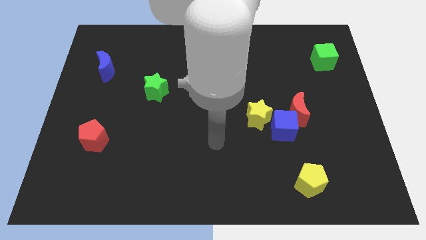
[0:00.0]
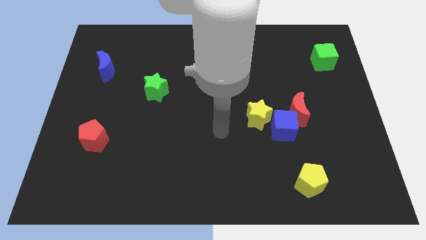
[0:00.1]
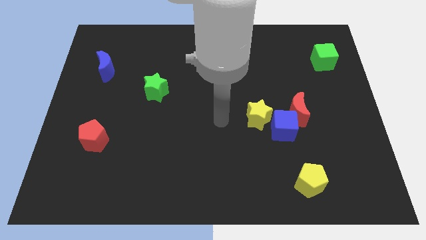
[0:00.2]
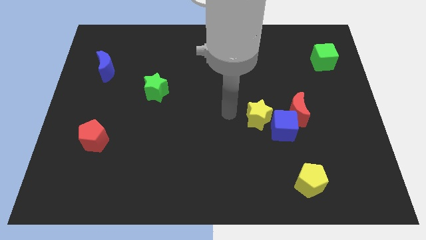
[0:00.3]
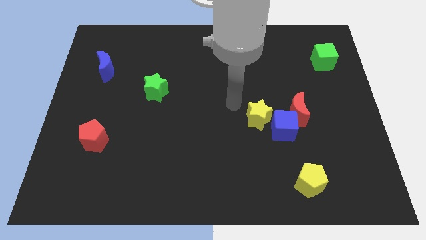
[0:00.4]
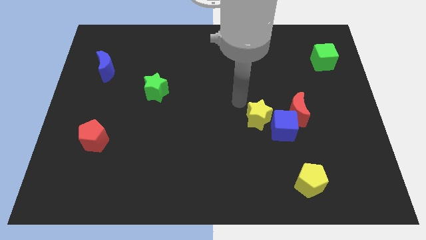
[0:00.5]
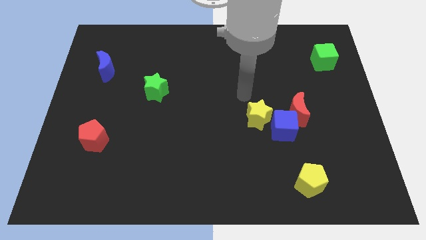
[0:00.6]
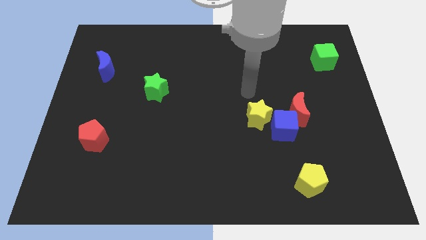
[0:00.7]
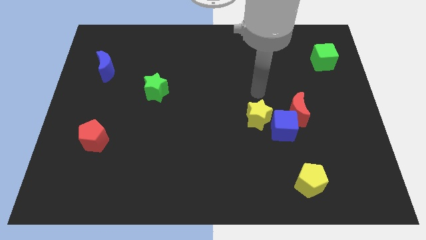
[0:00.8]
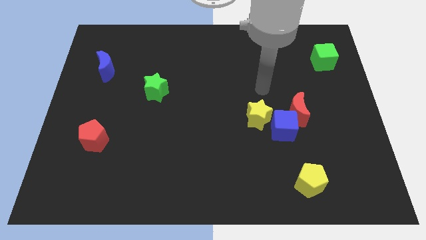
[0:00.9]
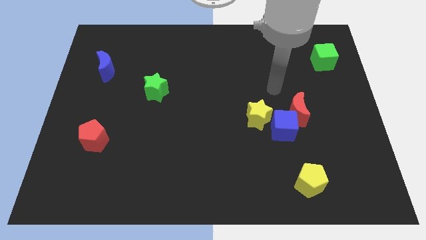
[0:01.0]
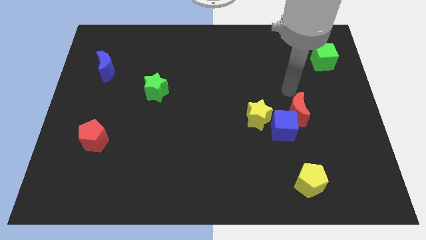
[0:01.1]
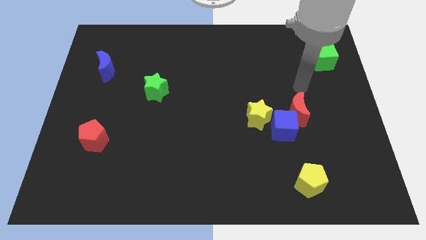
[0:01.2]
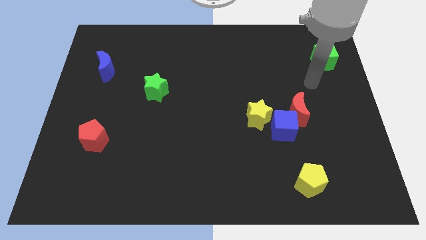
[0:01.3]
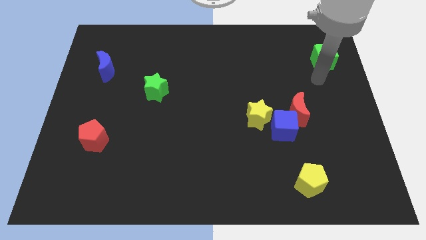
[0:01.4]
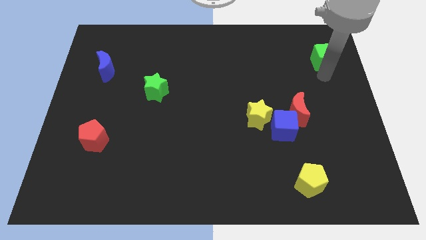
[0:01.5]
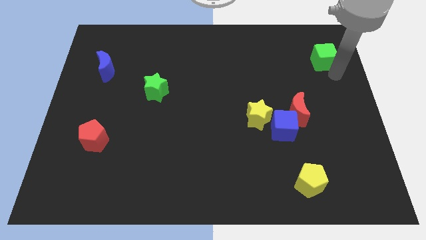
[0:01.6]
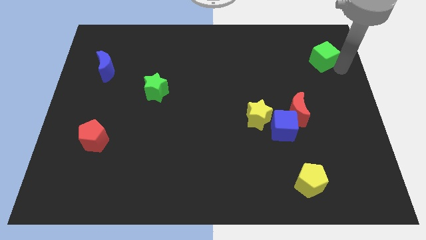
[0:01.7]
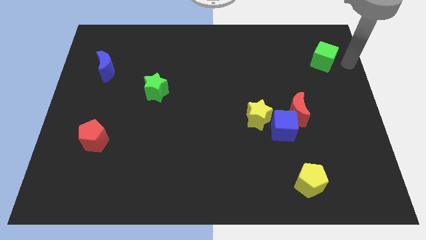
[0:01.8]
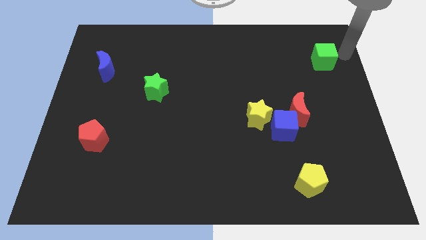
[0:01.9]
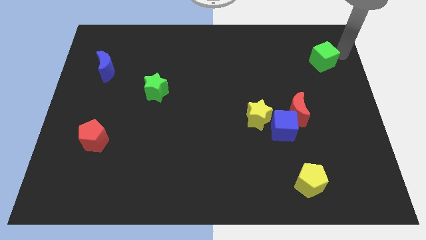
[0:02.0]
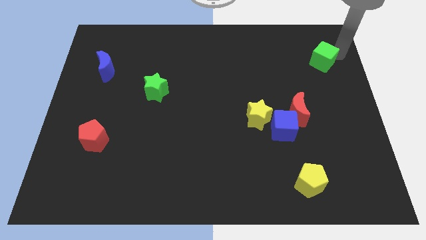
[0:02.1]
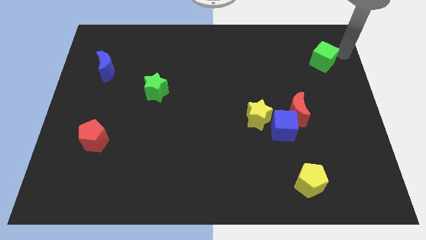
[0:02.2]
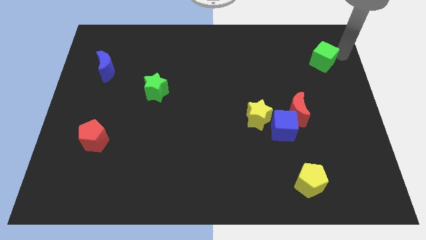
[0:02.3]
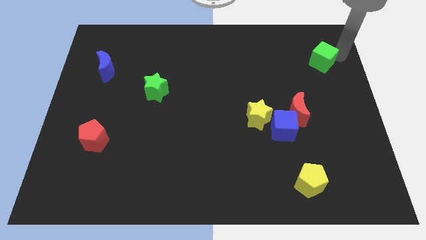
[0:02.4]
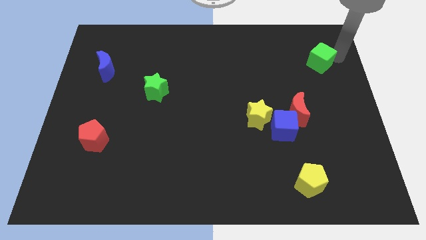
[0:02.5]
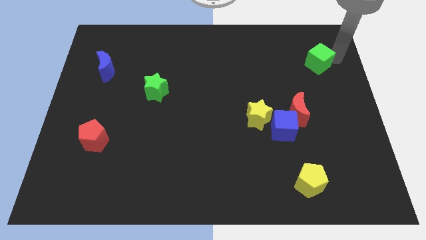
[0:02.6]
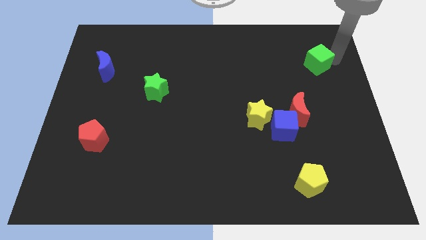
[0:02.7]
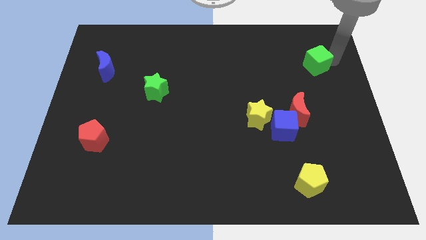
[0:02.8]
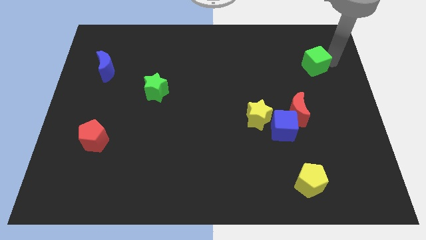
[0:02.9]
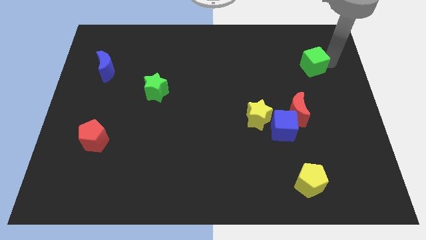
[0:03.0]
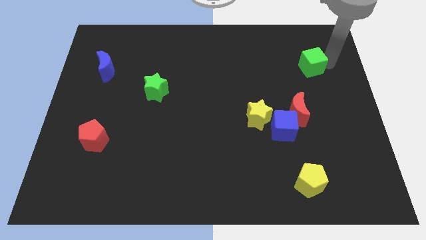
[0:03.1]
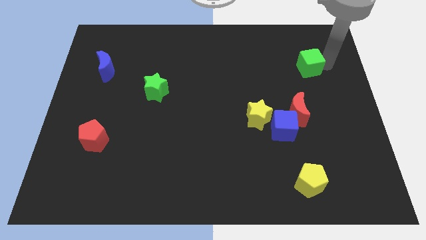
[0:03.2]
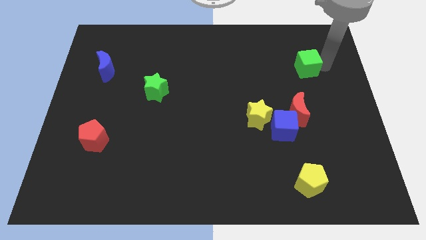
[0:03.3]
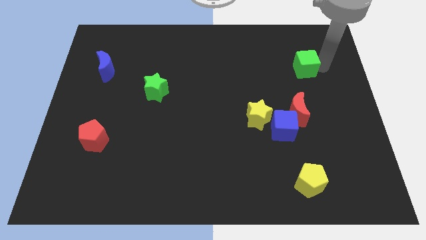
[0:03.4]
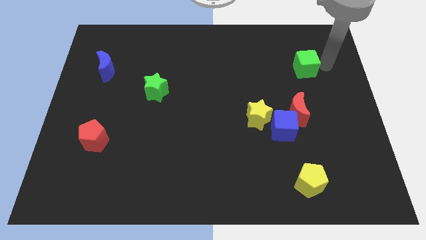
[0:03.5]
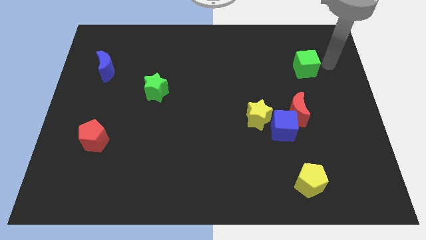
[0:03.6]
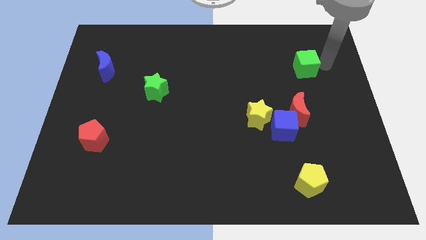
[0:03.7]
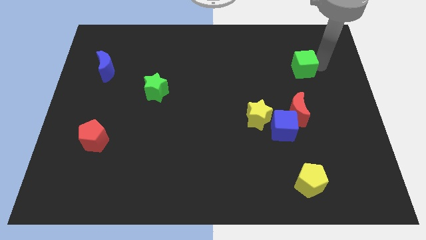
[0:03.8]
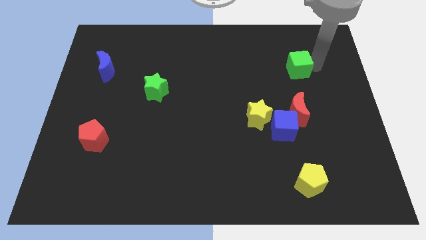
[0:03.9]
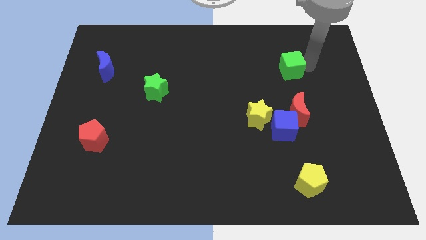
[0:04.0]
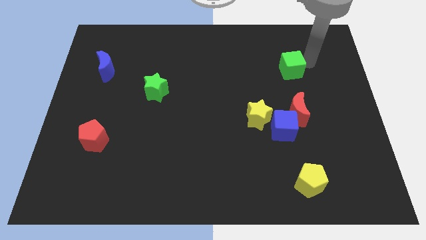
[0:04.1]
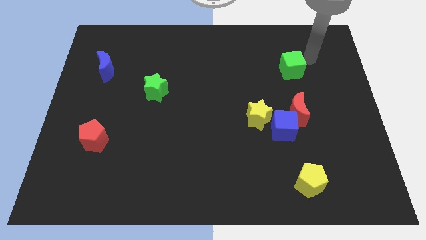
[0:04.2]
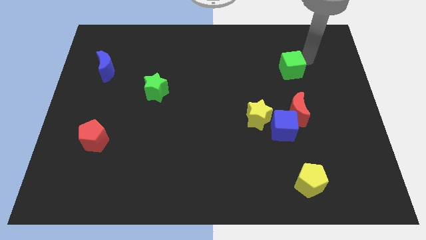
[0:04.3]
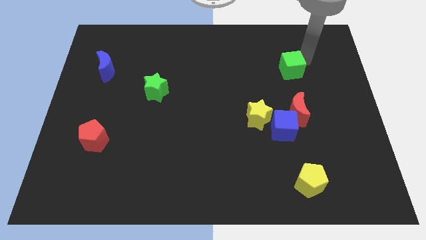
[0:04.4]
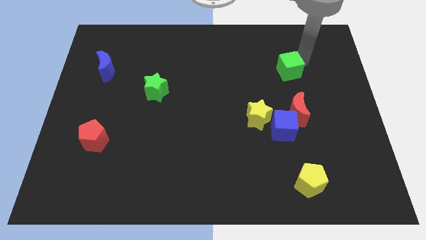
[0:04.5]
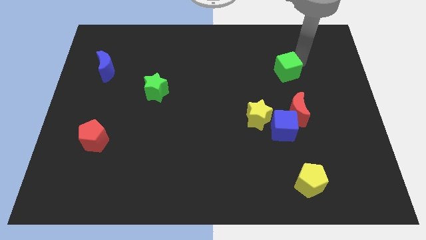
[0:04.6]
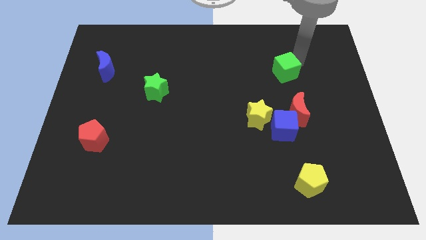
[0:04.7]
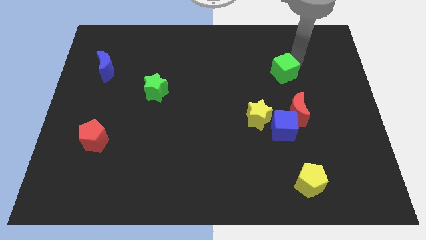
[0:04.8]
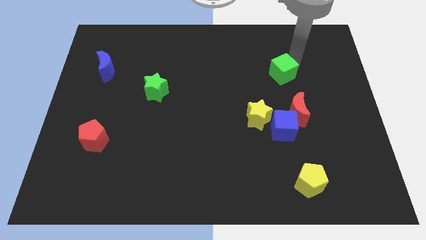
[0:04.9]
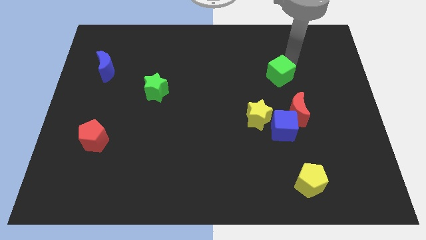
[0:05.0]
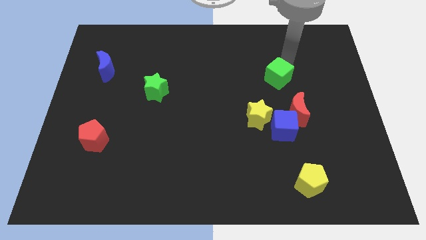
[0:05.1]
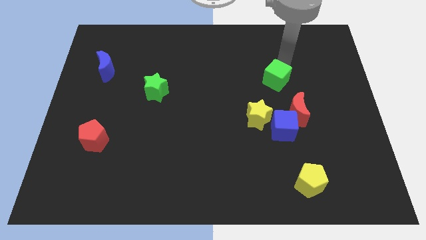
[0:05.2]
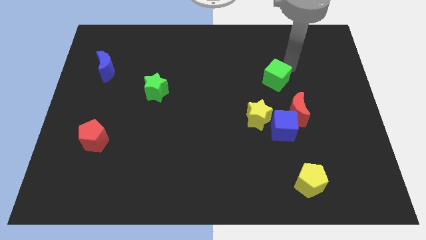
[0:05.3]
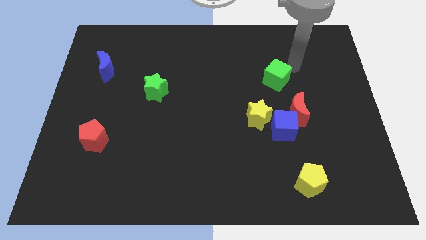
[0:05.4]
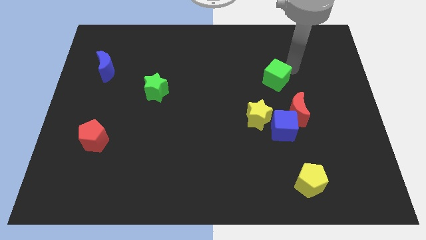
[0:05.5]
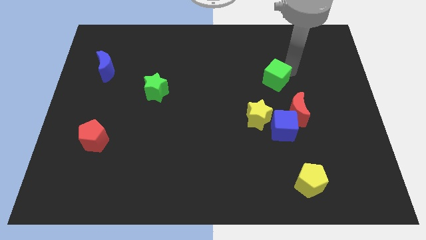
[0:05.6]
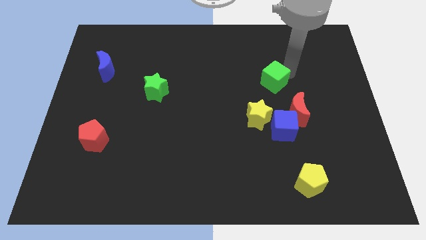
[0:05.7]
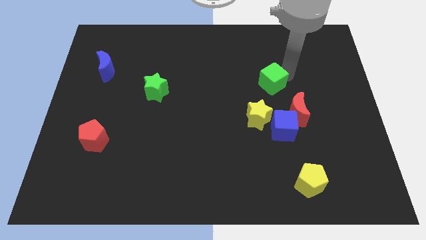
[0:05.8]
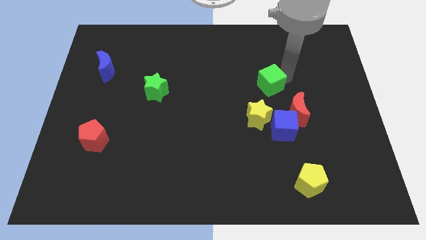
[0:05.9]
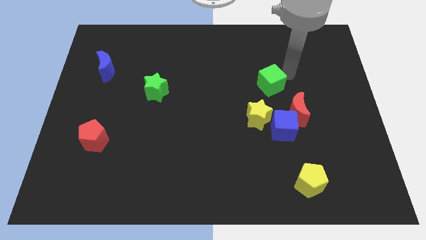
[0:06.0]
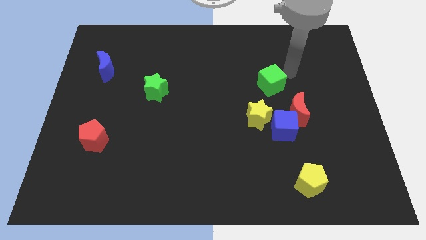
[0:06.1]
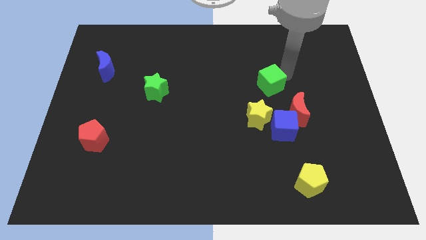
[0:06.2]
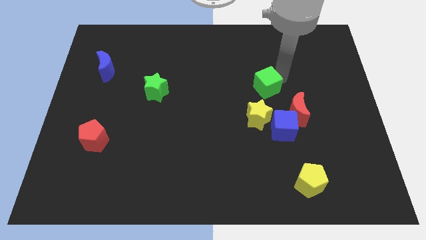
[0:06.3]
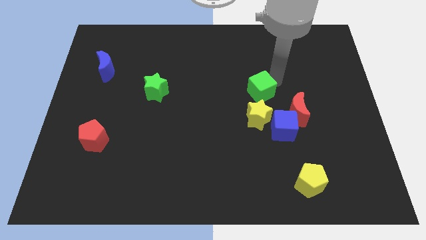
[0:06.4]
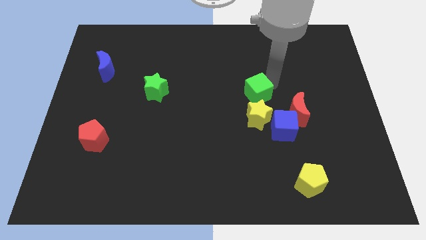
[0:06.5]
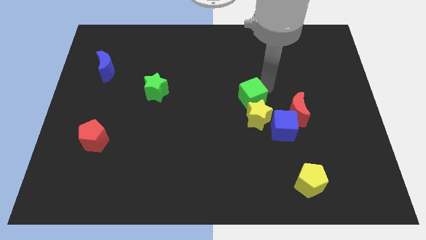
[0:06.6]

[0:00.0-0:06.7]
slide the green cube down and left diagonally

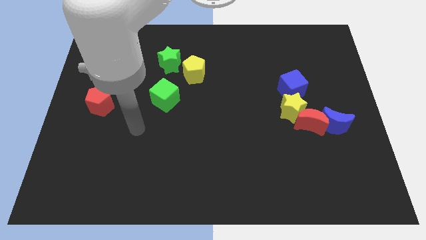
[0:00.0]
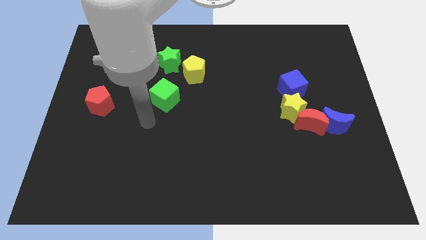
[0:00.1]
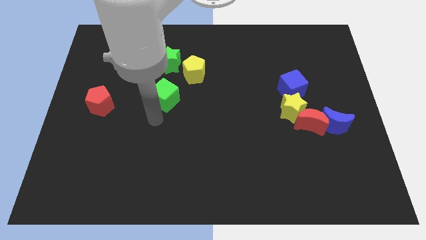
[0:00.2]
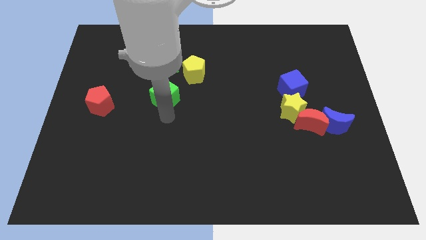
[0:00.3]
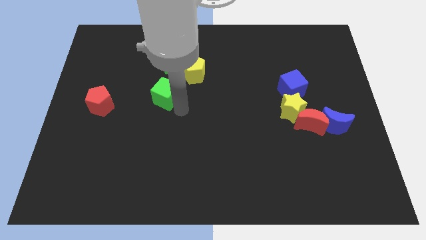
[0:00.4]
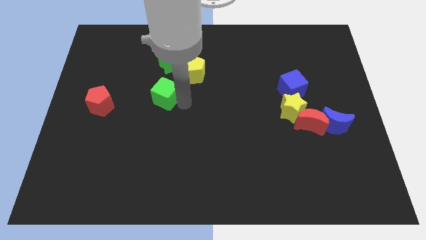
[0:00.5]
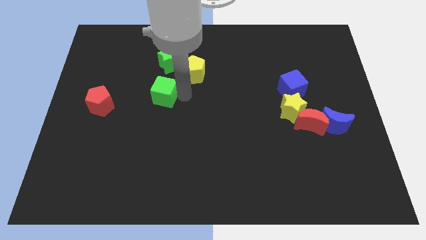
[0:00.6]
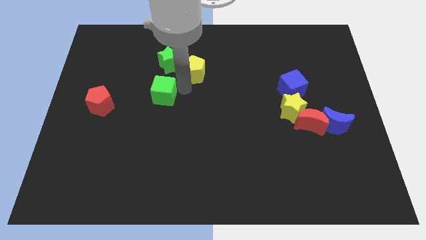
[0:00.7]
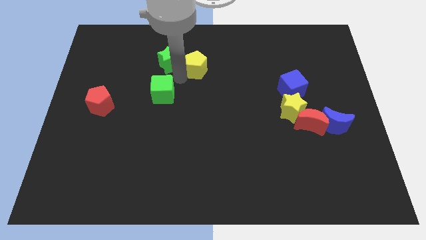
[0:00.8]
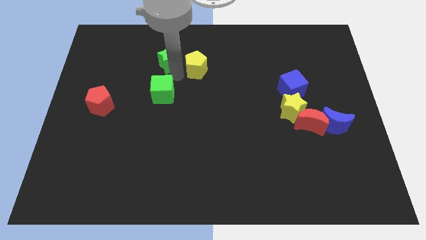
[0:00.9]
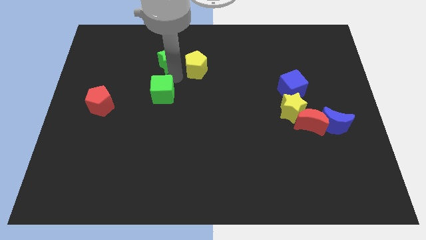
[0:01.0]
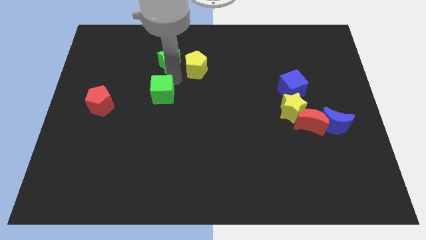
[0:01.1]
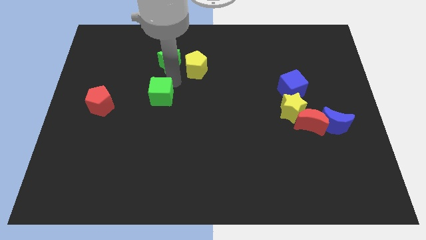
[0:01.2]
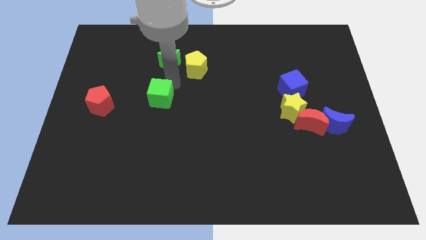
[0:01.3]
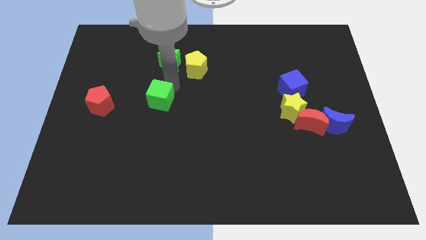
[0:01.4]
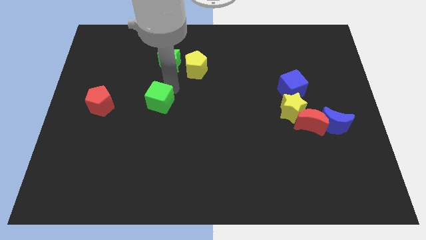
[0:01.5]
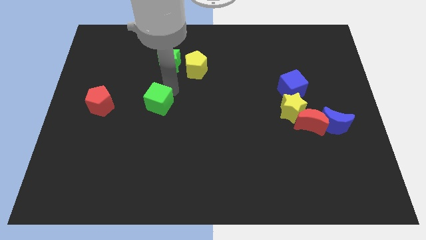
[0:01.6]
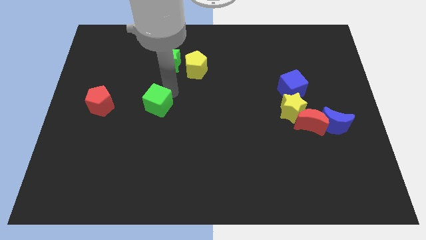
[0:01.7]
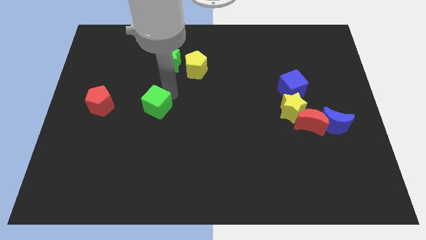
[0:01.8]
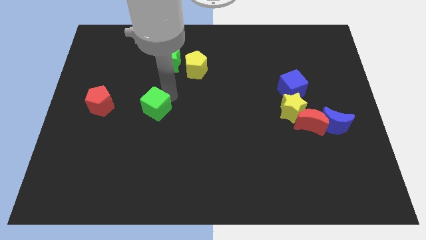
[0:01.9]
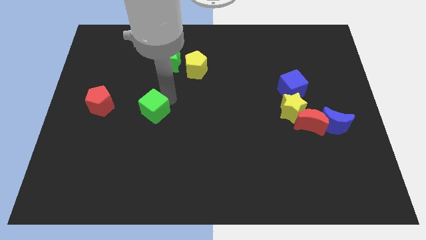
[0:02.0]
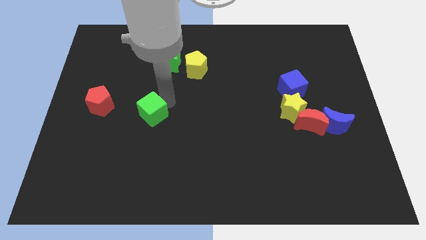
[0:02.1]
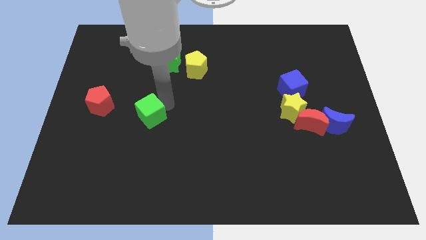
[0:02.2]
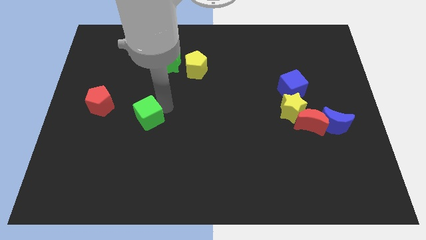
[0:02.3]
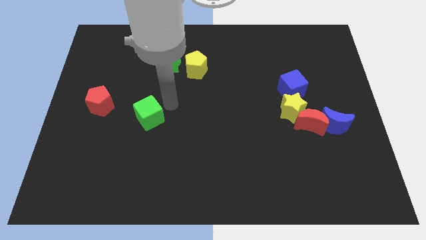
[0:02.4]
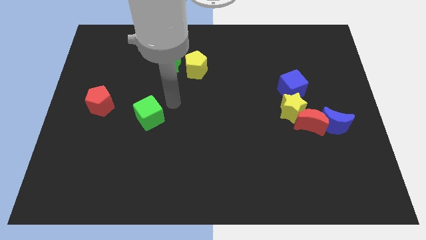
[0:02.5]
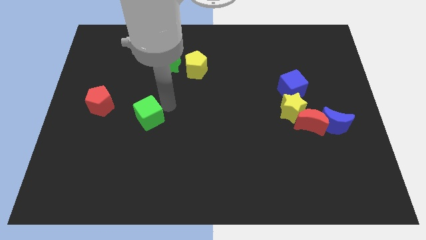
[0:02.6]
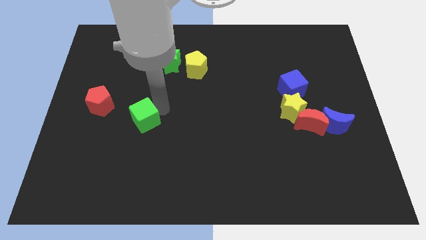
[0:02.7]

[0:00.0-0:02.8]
move the green cube somewhat diagonally down and to the left
